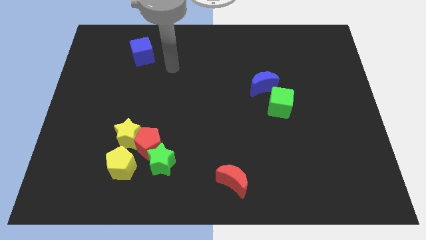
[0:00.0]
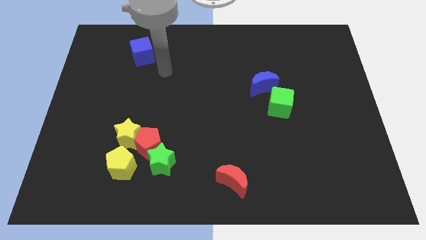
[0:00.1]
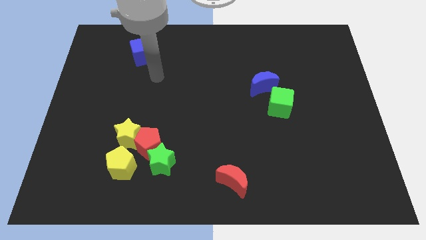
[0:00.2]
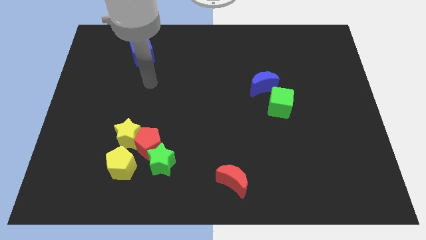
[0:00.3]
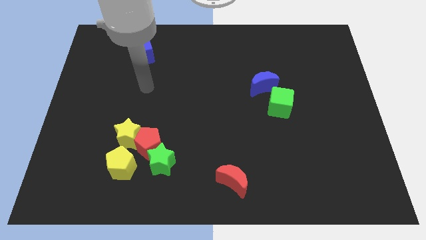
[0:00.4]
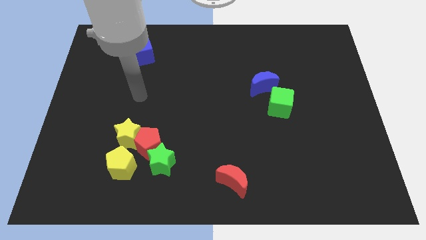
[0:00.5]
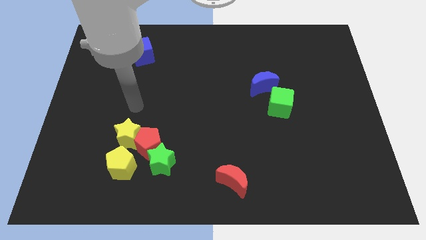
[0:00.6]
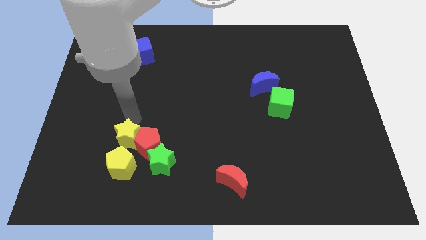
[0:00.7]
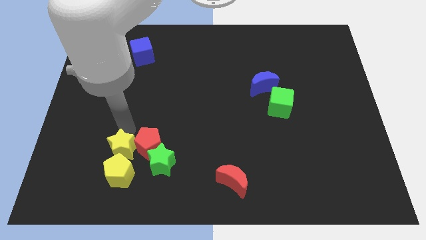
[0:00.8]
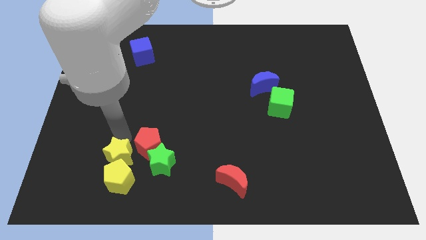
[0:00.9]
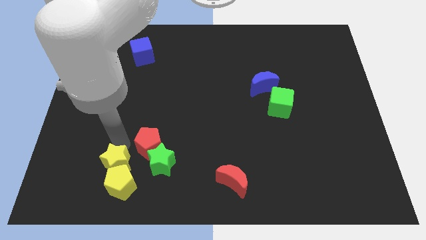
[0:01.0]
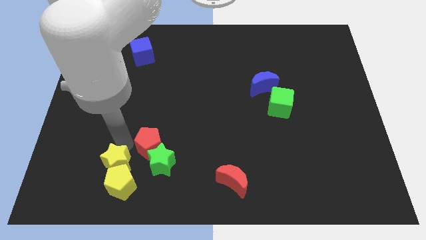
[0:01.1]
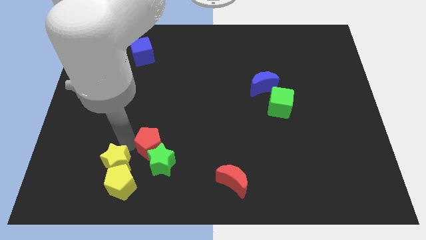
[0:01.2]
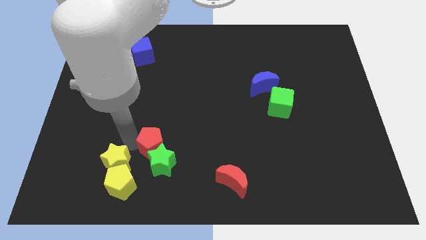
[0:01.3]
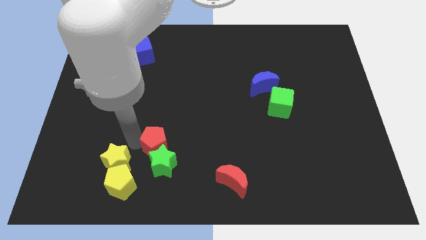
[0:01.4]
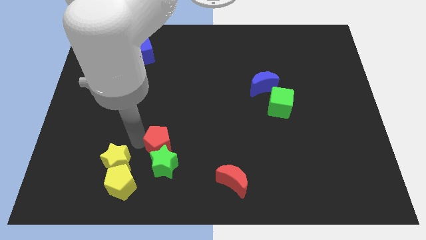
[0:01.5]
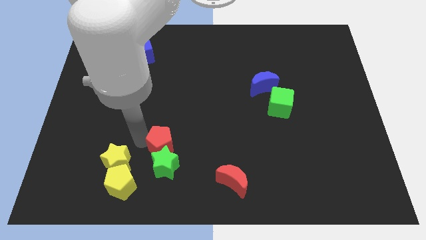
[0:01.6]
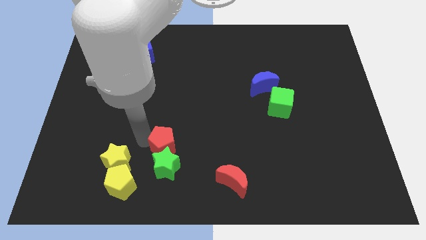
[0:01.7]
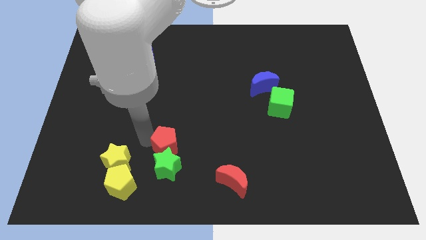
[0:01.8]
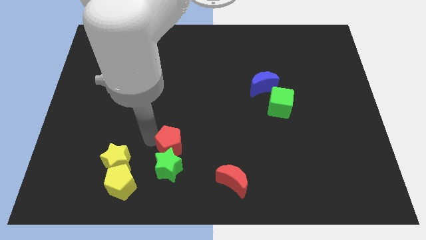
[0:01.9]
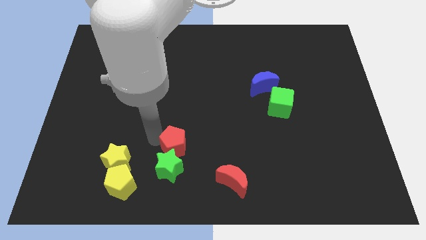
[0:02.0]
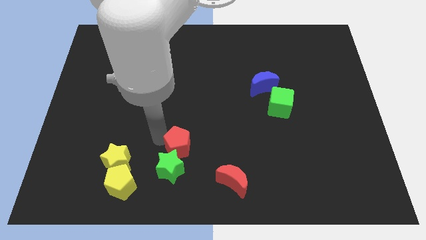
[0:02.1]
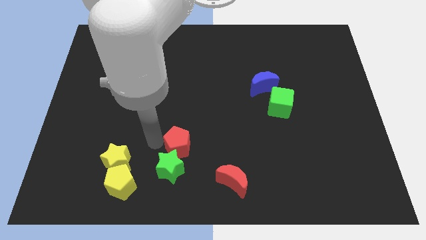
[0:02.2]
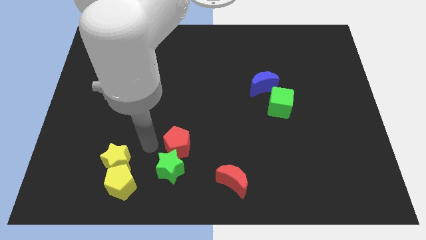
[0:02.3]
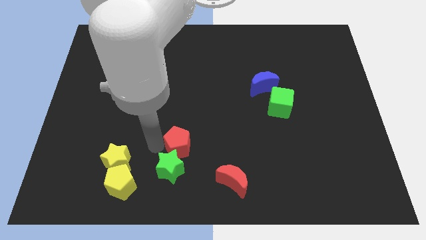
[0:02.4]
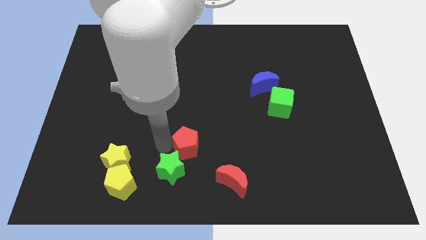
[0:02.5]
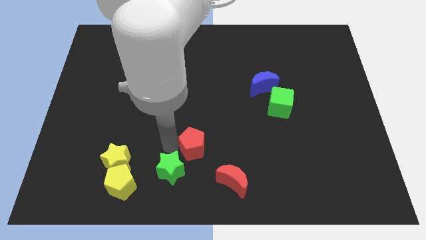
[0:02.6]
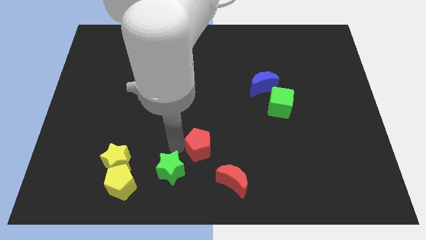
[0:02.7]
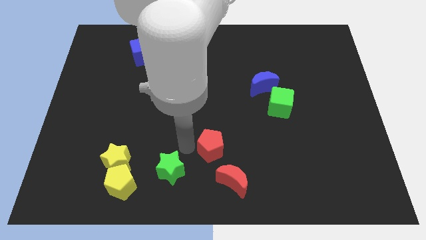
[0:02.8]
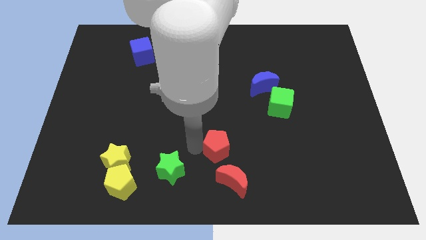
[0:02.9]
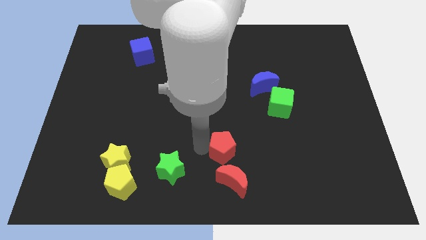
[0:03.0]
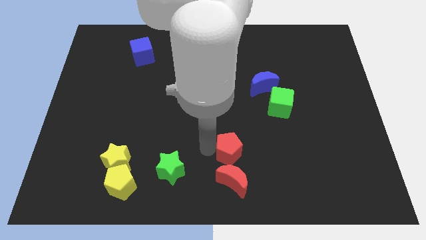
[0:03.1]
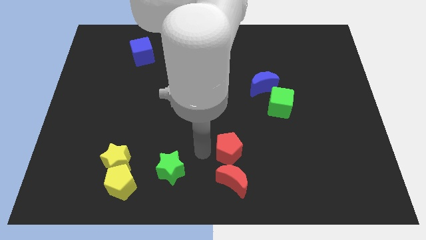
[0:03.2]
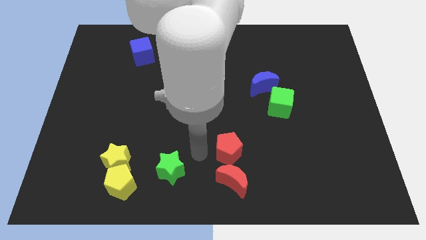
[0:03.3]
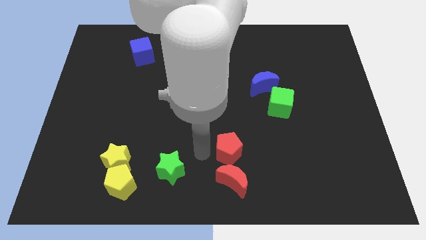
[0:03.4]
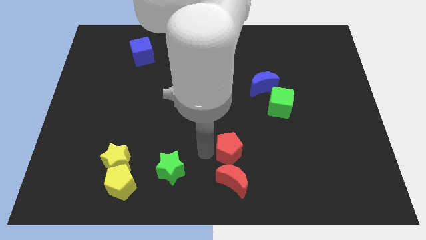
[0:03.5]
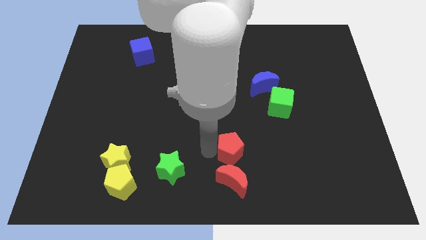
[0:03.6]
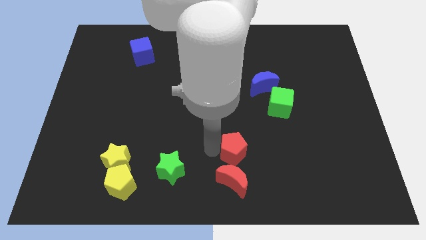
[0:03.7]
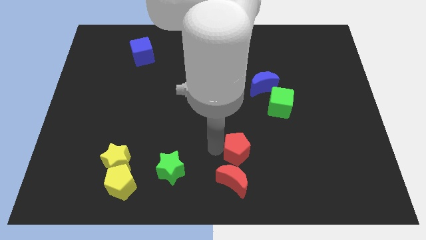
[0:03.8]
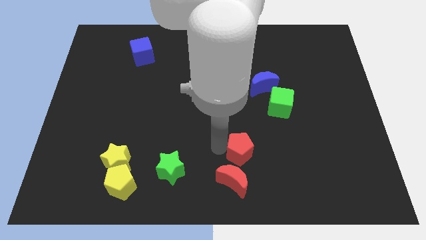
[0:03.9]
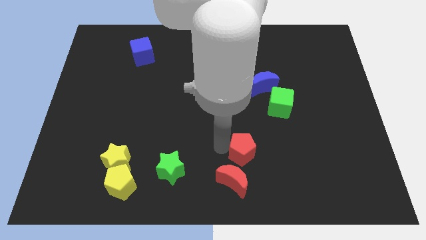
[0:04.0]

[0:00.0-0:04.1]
push the red pentagon to the right

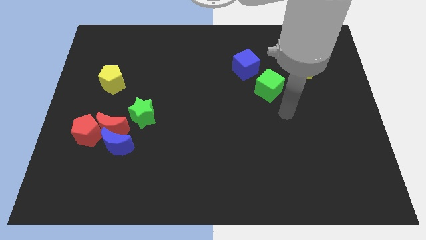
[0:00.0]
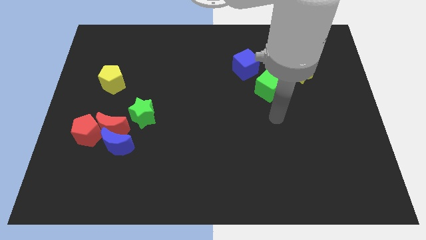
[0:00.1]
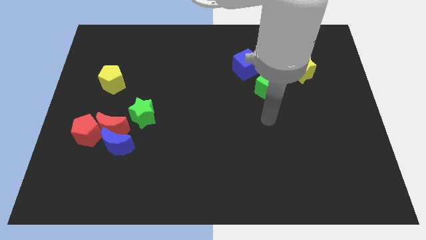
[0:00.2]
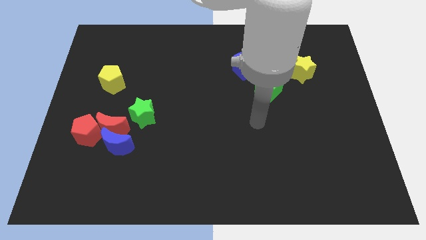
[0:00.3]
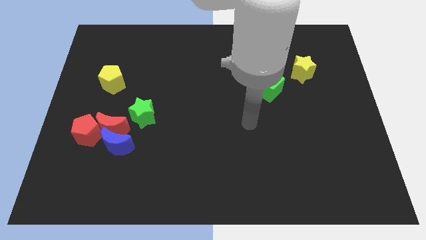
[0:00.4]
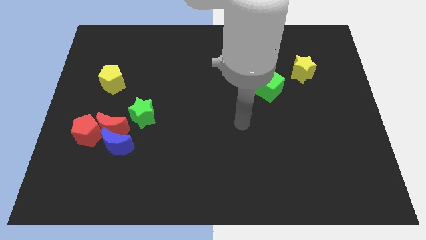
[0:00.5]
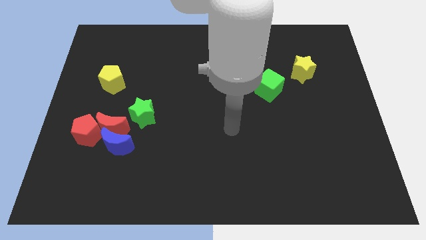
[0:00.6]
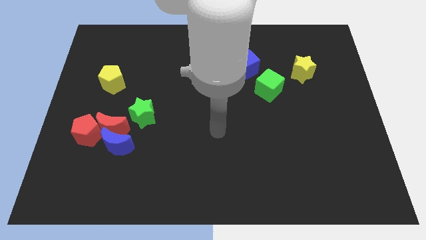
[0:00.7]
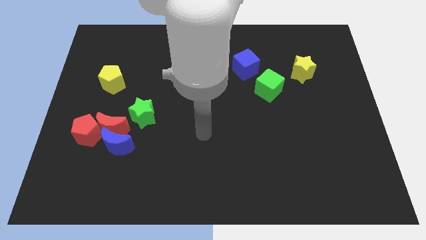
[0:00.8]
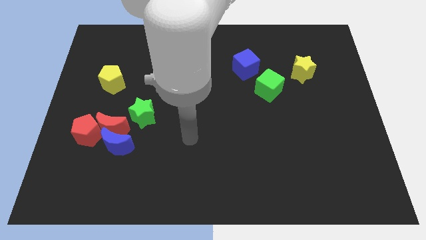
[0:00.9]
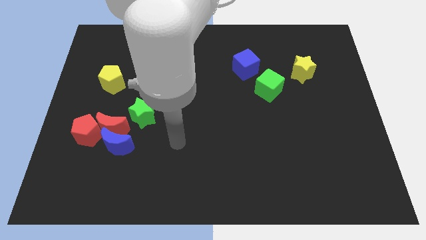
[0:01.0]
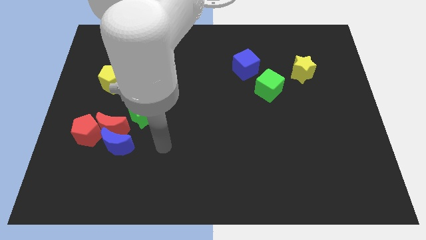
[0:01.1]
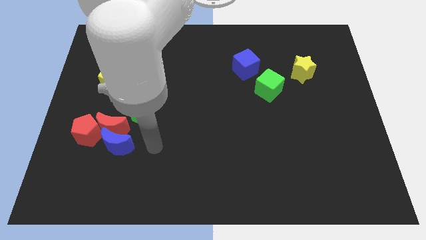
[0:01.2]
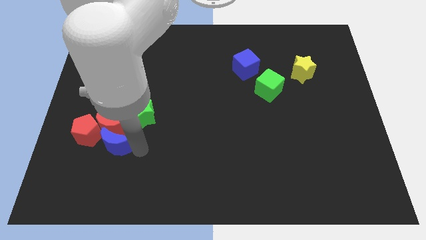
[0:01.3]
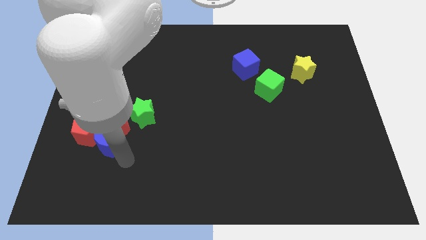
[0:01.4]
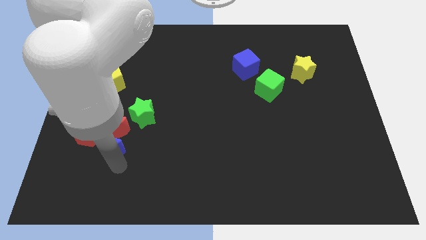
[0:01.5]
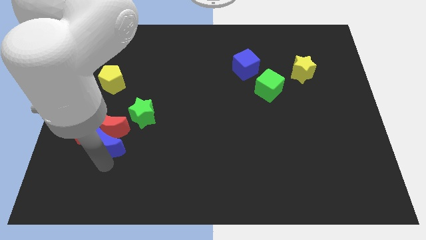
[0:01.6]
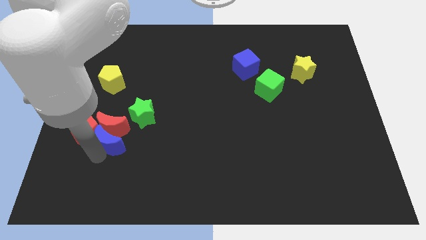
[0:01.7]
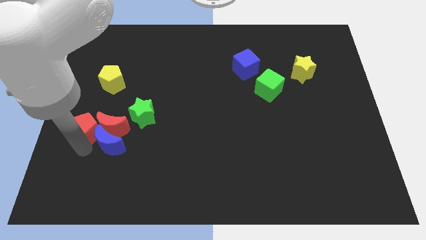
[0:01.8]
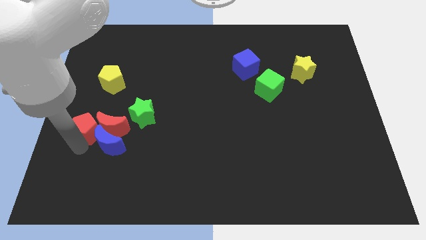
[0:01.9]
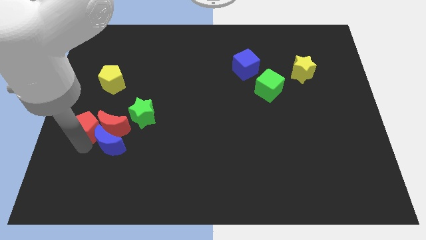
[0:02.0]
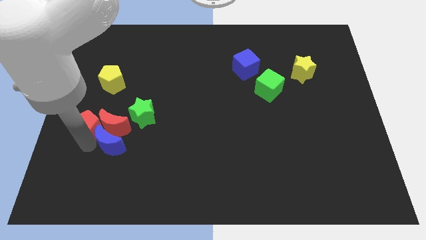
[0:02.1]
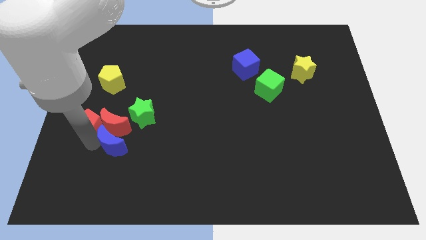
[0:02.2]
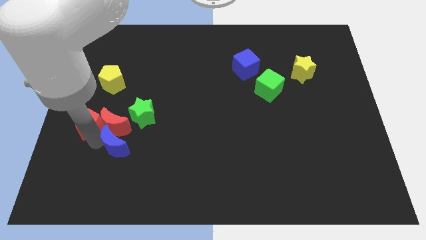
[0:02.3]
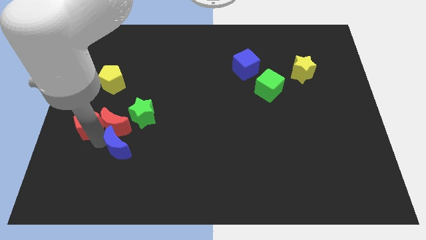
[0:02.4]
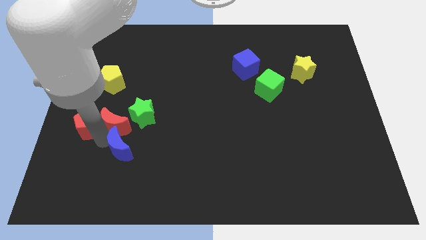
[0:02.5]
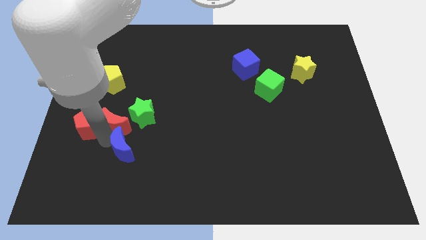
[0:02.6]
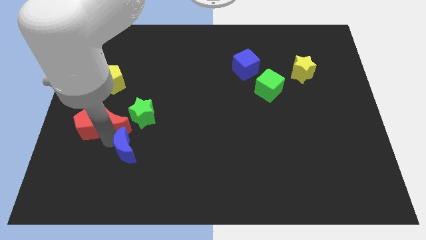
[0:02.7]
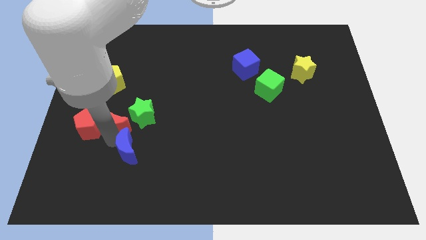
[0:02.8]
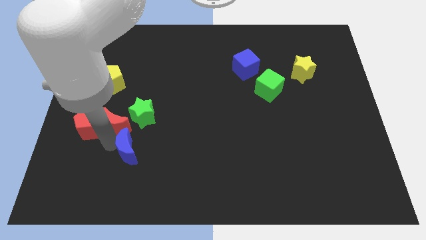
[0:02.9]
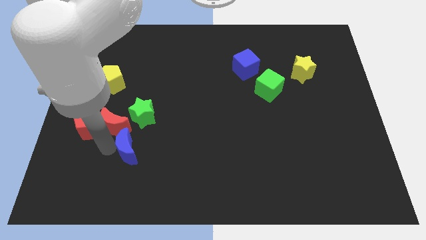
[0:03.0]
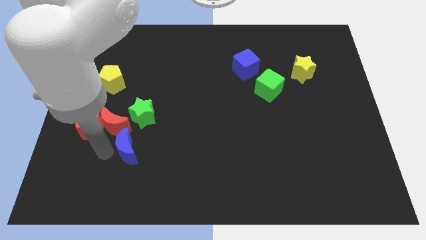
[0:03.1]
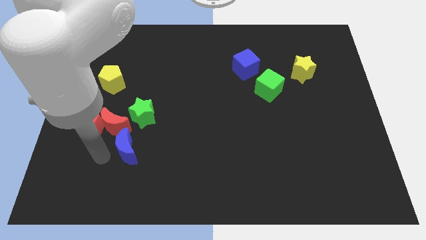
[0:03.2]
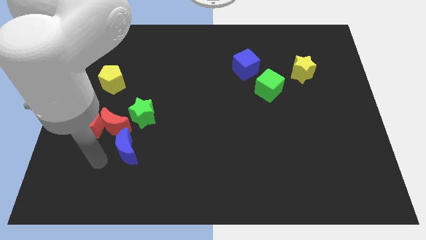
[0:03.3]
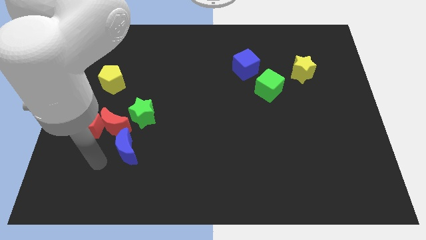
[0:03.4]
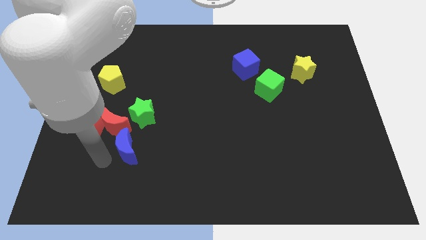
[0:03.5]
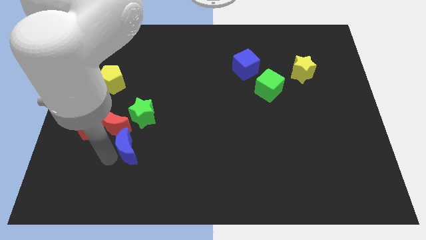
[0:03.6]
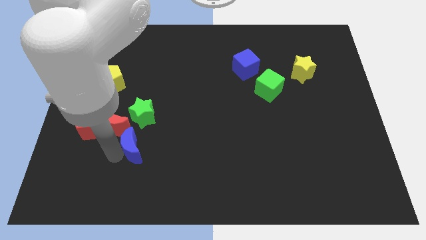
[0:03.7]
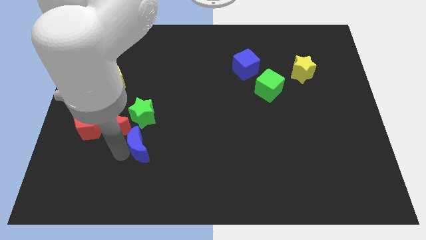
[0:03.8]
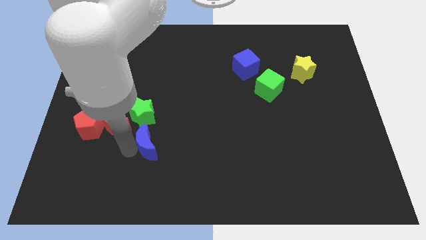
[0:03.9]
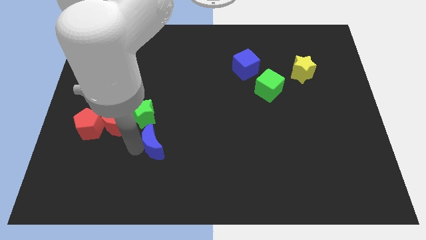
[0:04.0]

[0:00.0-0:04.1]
slightly push the blue moon to the right

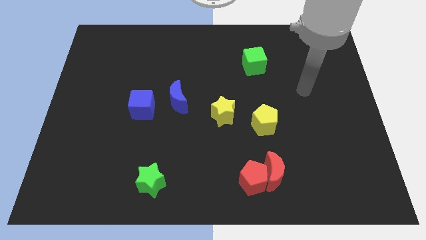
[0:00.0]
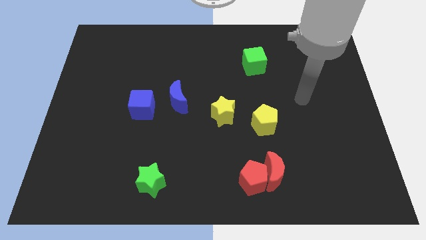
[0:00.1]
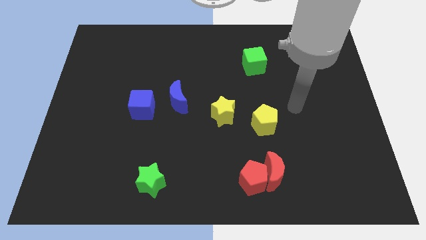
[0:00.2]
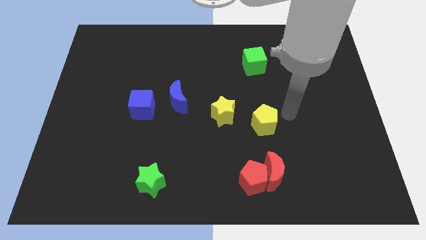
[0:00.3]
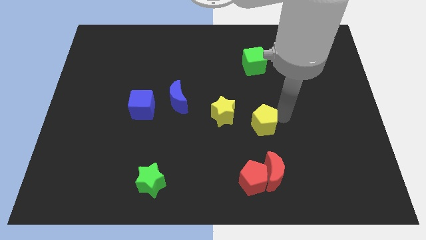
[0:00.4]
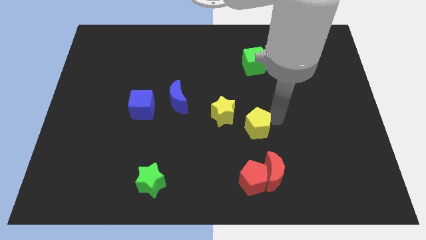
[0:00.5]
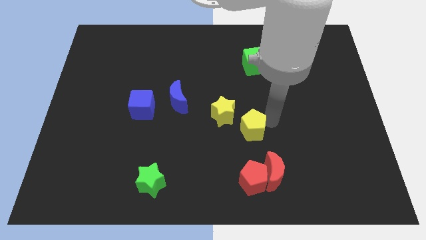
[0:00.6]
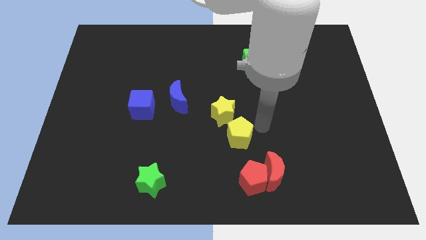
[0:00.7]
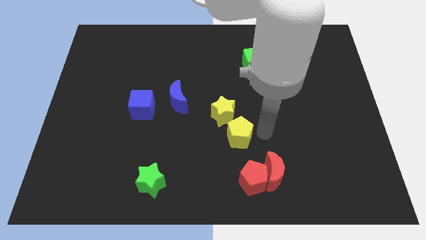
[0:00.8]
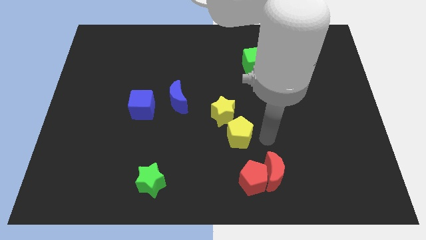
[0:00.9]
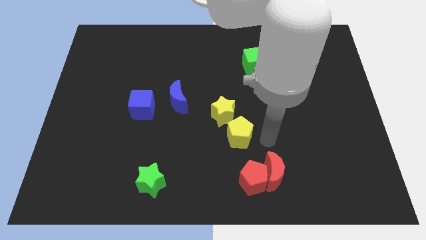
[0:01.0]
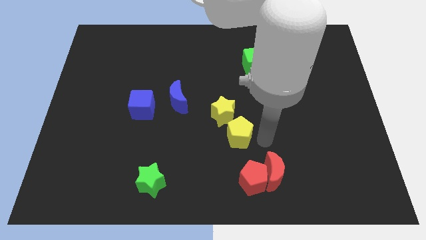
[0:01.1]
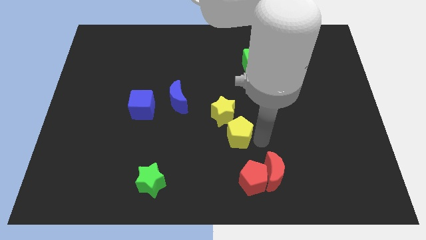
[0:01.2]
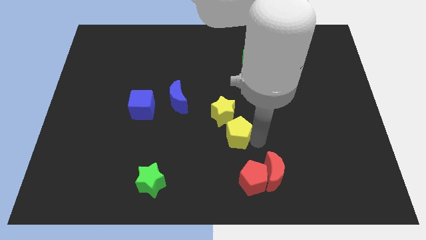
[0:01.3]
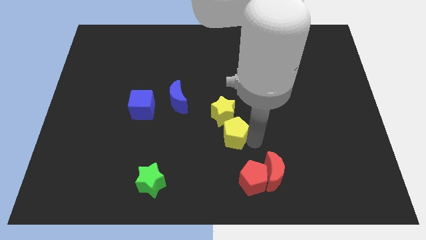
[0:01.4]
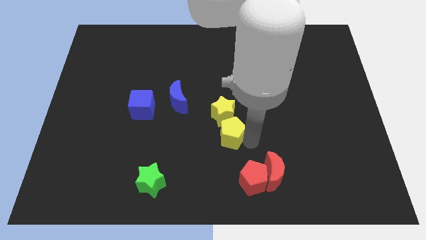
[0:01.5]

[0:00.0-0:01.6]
move the yellow pentagon left a bit
